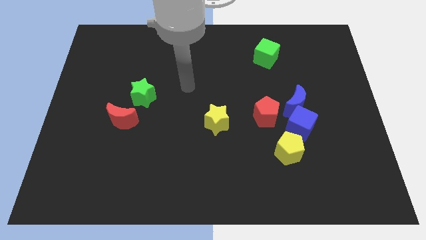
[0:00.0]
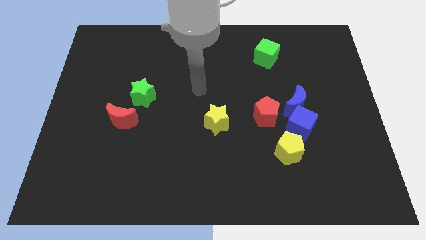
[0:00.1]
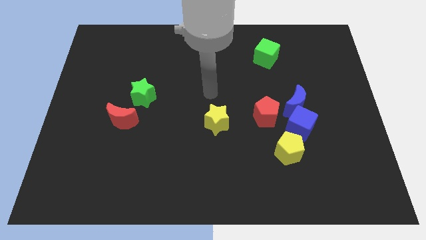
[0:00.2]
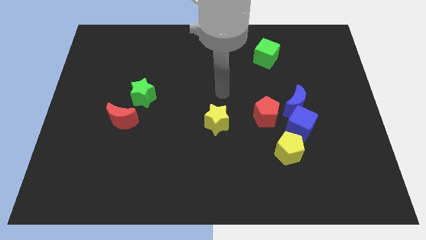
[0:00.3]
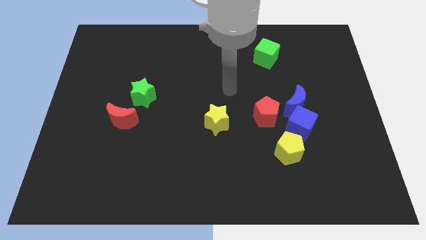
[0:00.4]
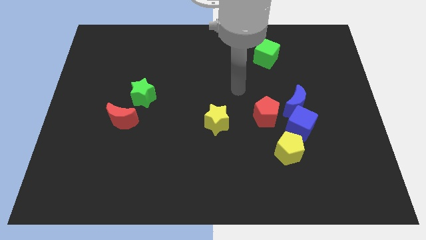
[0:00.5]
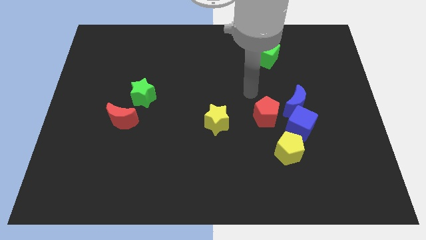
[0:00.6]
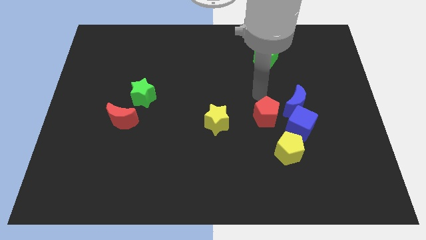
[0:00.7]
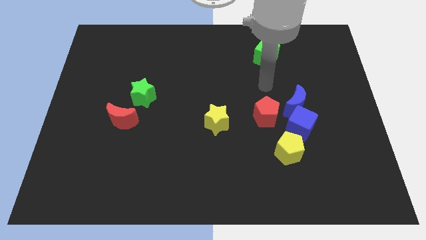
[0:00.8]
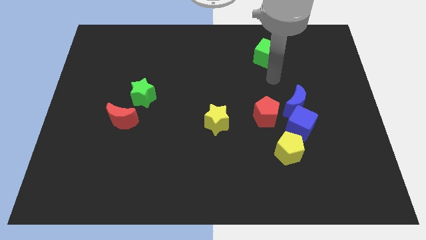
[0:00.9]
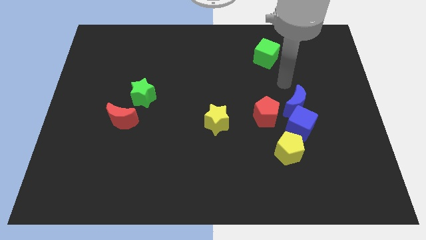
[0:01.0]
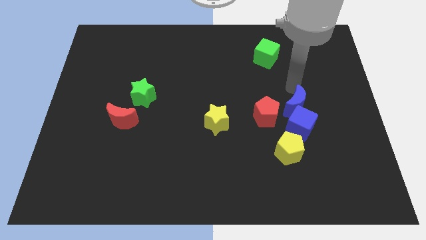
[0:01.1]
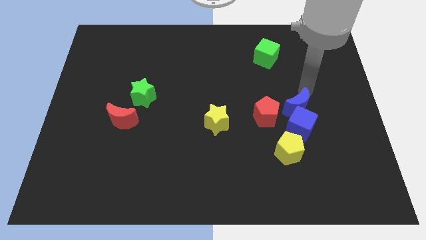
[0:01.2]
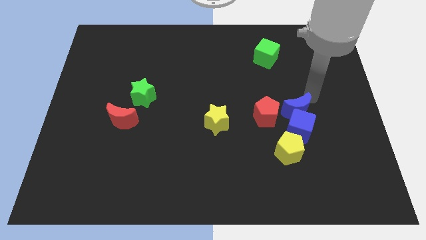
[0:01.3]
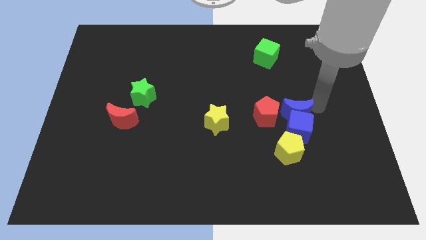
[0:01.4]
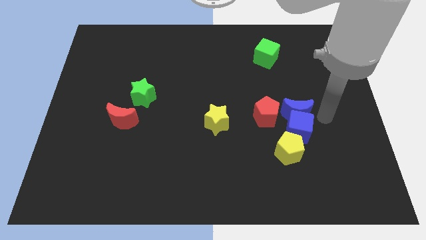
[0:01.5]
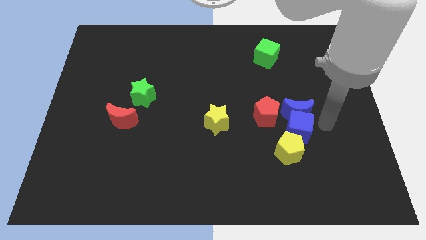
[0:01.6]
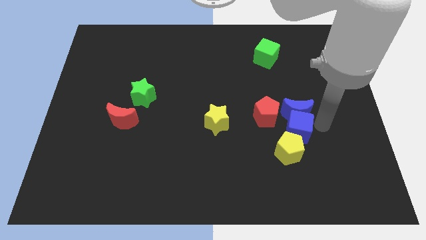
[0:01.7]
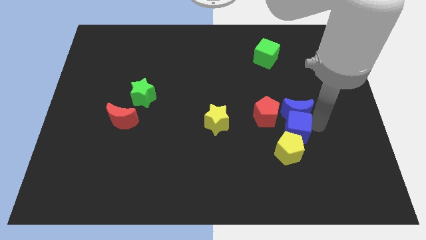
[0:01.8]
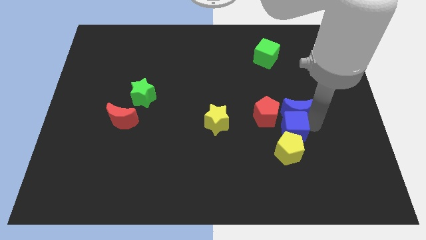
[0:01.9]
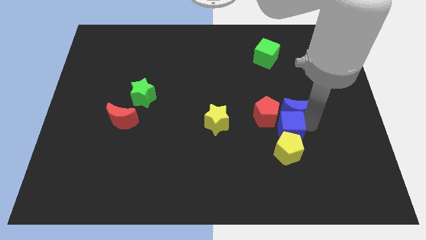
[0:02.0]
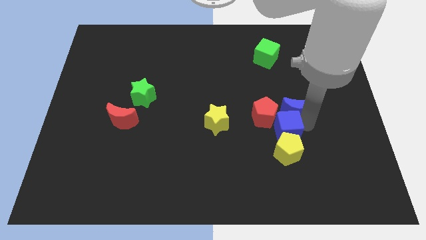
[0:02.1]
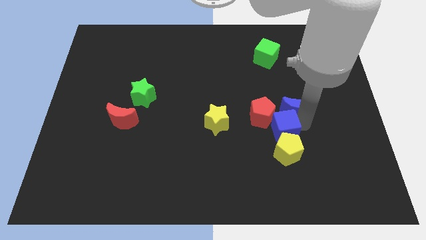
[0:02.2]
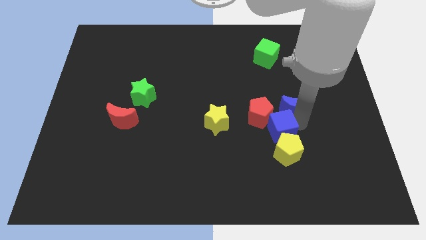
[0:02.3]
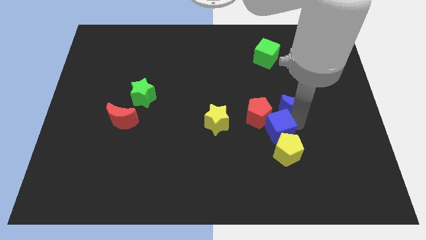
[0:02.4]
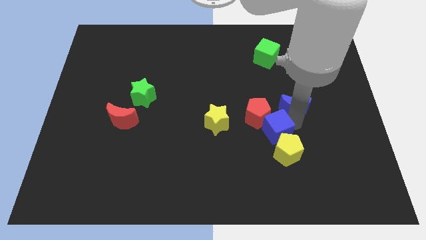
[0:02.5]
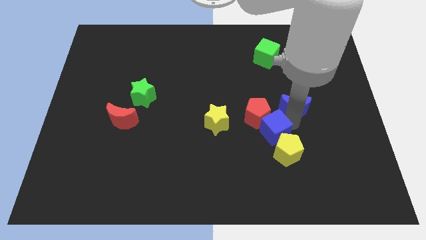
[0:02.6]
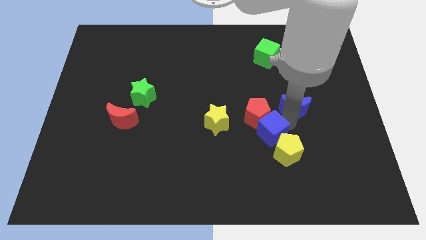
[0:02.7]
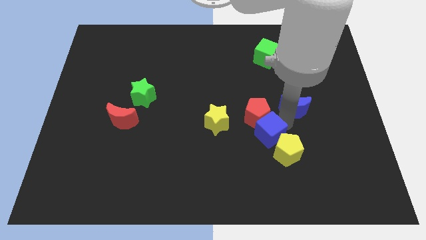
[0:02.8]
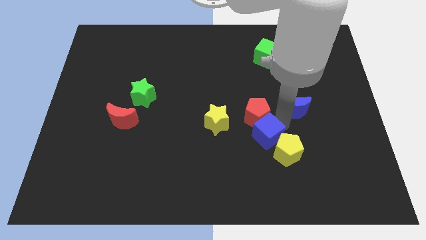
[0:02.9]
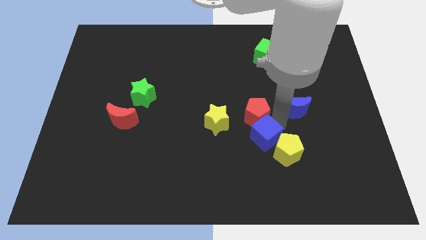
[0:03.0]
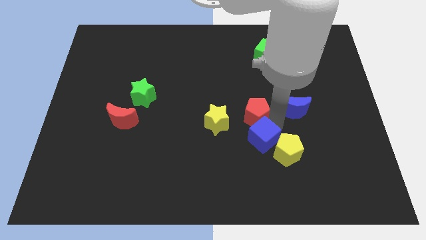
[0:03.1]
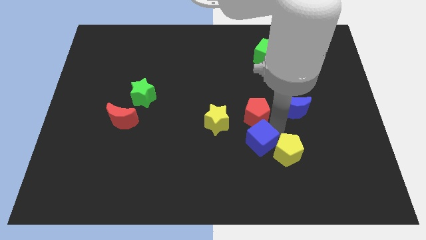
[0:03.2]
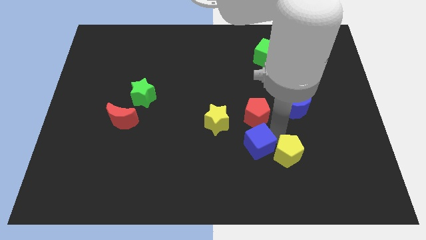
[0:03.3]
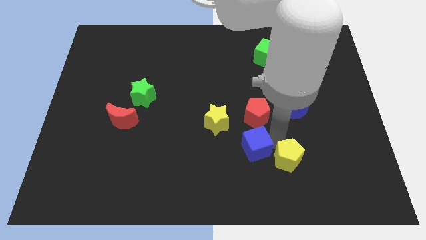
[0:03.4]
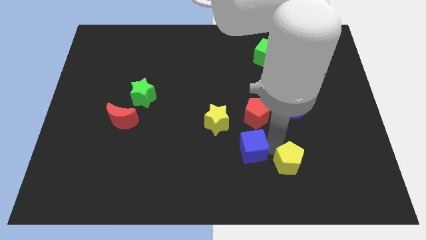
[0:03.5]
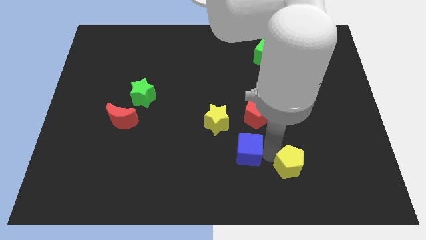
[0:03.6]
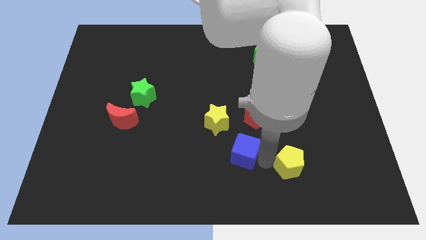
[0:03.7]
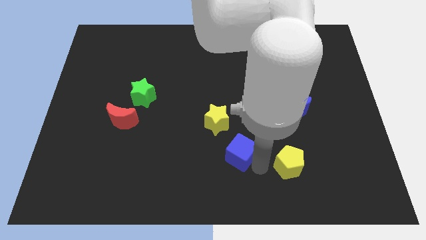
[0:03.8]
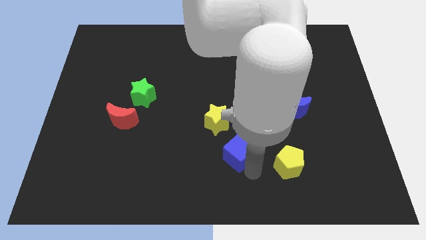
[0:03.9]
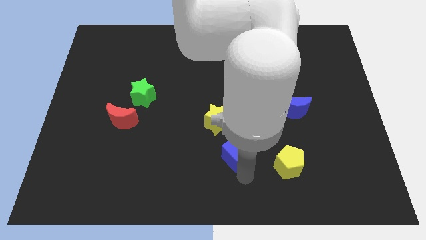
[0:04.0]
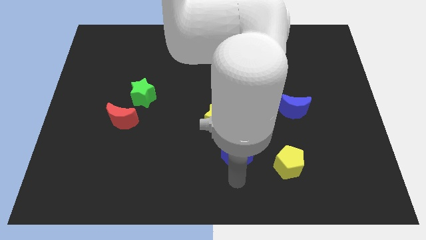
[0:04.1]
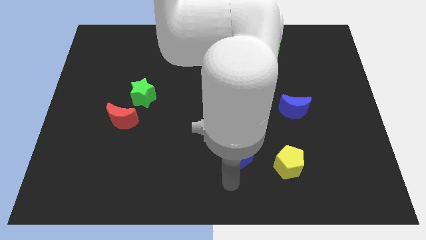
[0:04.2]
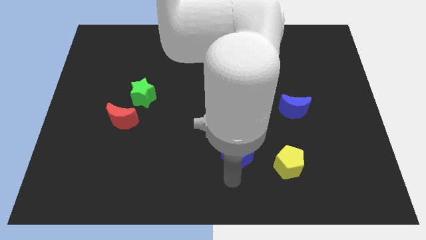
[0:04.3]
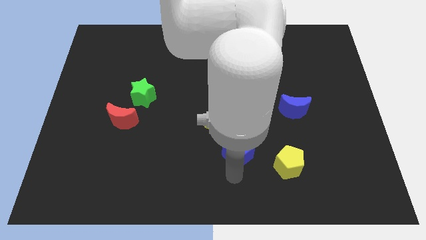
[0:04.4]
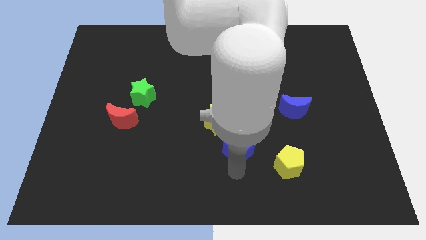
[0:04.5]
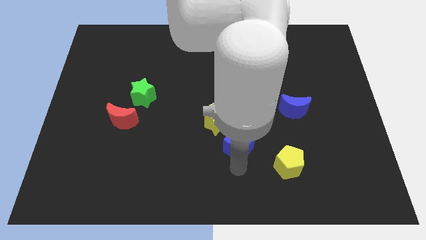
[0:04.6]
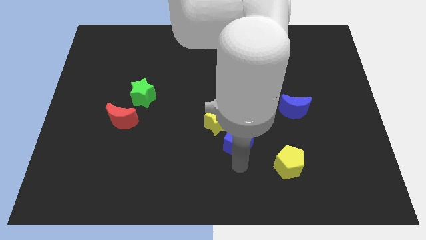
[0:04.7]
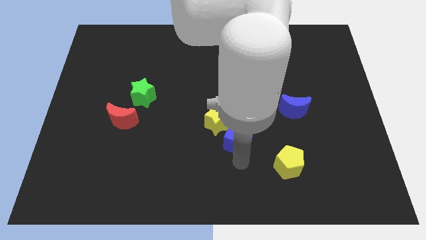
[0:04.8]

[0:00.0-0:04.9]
slide the blue cube to the middle

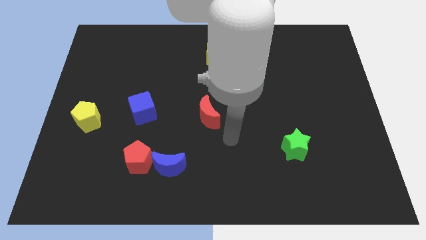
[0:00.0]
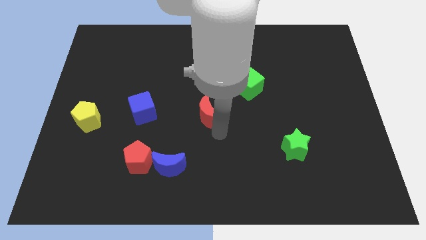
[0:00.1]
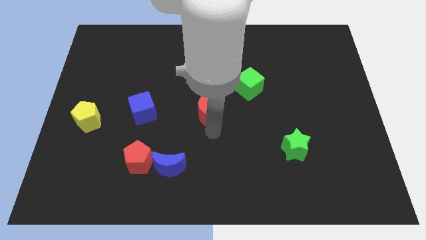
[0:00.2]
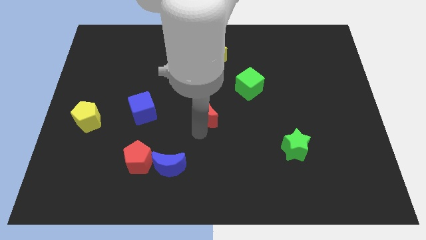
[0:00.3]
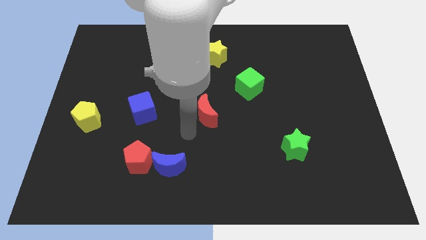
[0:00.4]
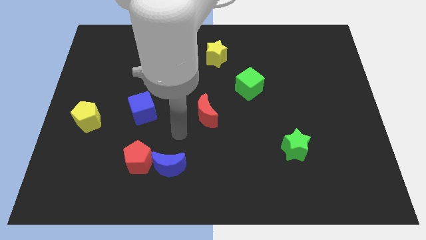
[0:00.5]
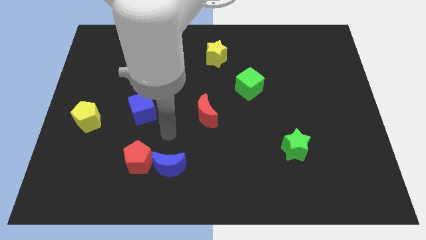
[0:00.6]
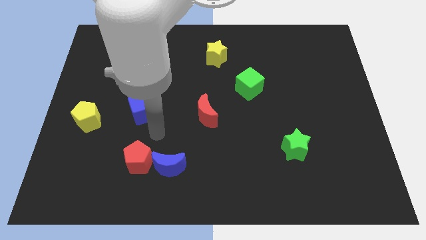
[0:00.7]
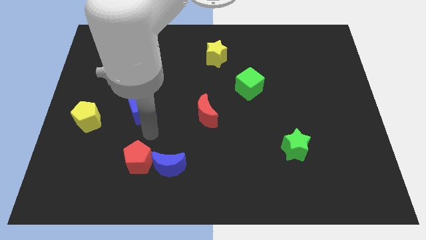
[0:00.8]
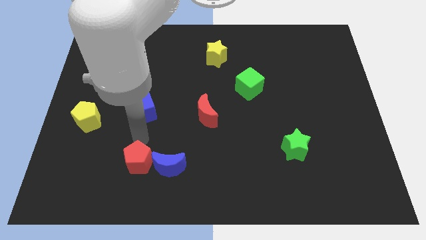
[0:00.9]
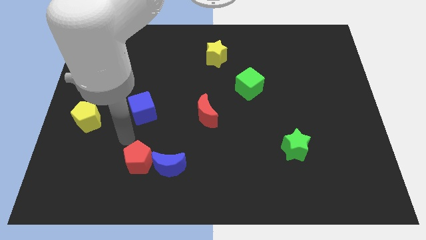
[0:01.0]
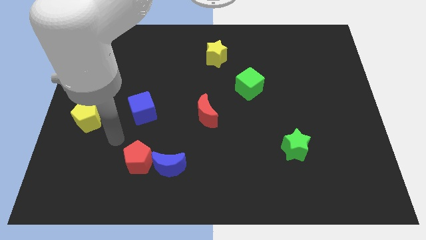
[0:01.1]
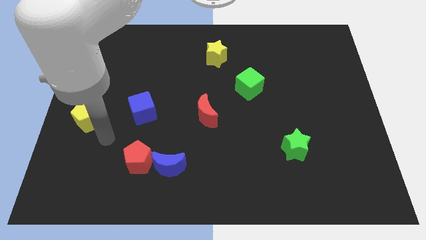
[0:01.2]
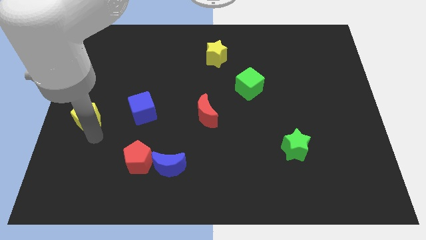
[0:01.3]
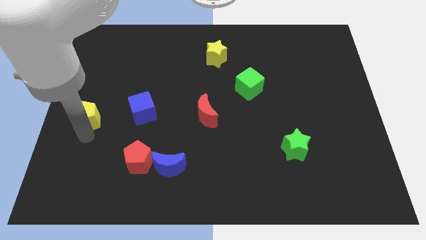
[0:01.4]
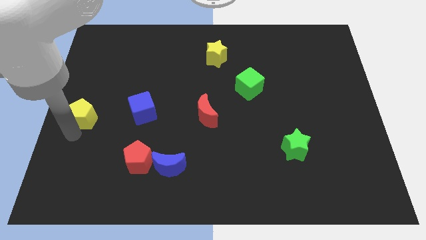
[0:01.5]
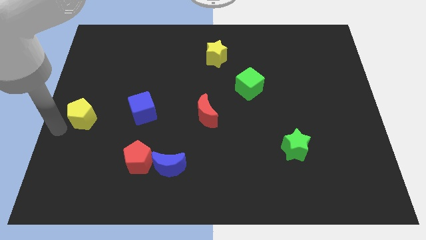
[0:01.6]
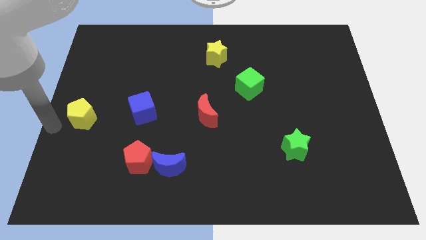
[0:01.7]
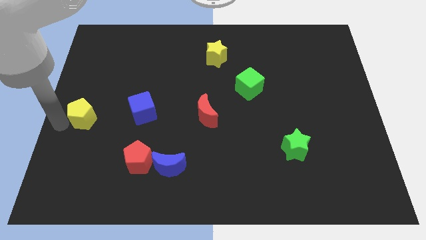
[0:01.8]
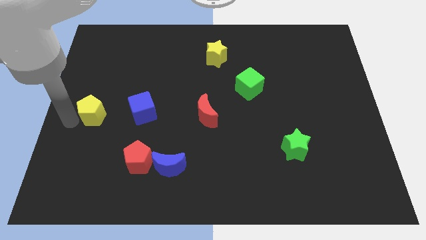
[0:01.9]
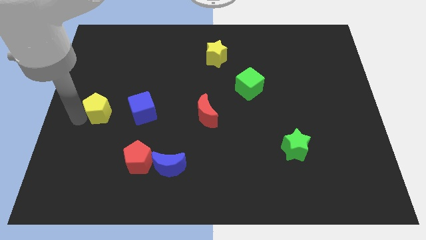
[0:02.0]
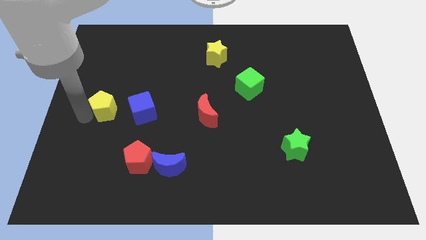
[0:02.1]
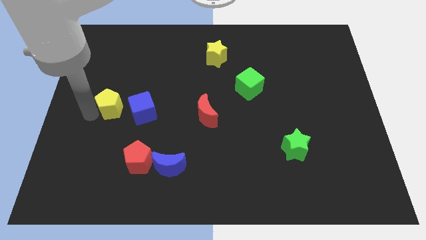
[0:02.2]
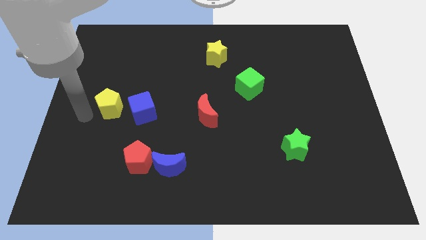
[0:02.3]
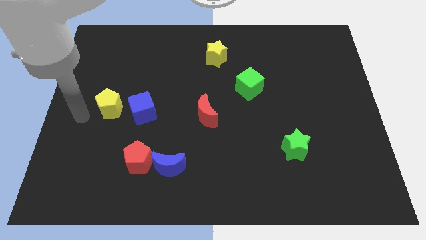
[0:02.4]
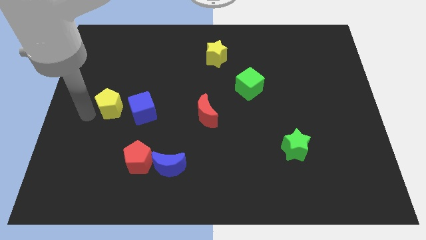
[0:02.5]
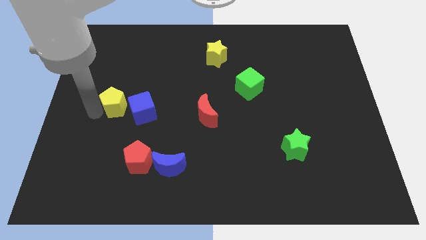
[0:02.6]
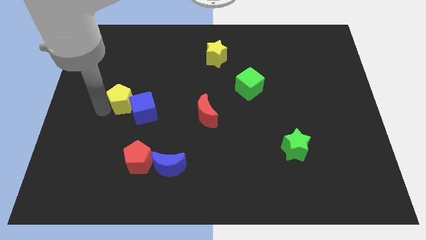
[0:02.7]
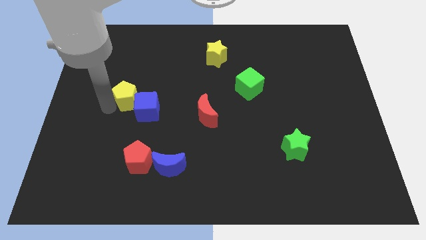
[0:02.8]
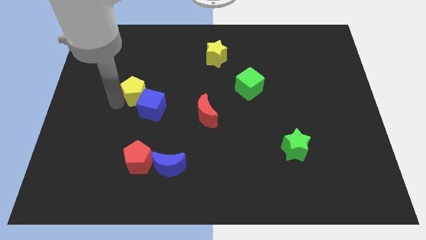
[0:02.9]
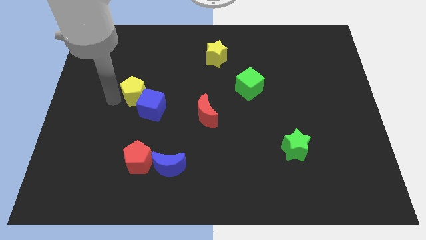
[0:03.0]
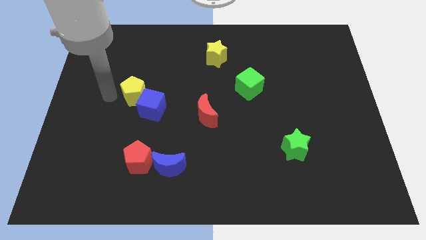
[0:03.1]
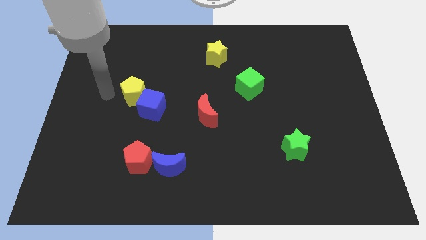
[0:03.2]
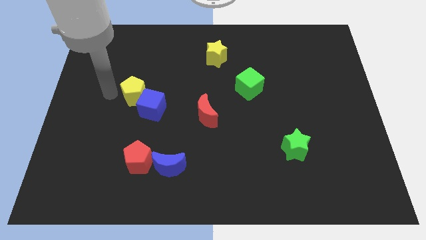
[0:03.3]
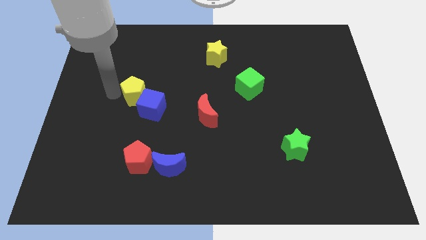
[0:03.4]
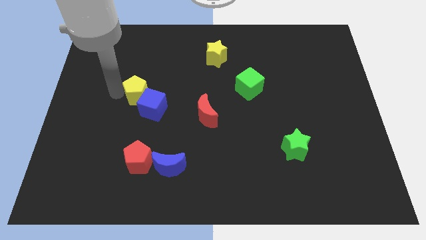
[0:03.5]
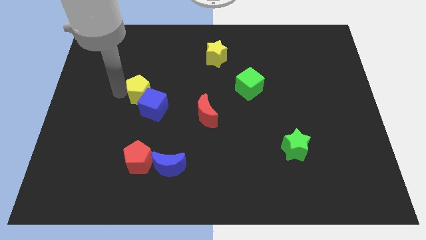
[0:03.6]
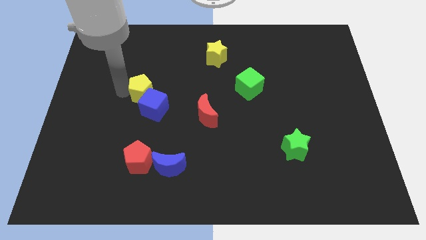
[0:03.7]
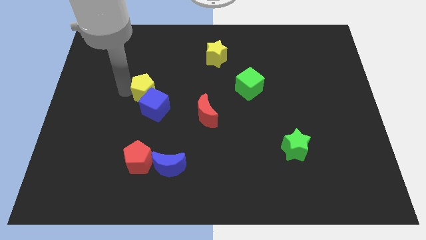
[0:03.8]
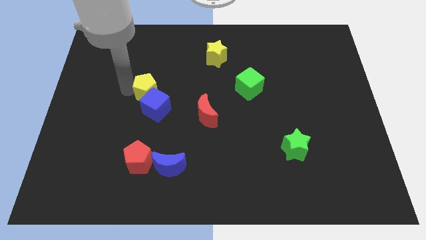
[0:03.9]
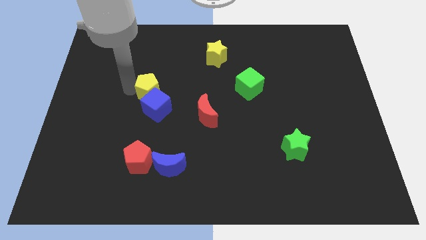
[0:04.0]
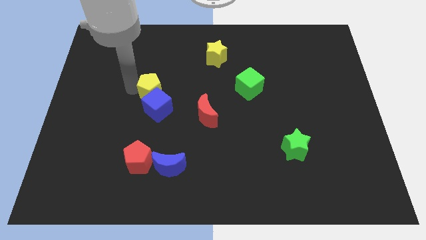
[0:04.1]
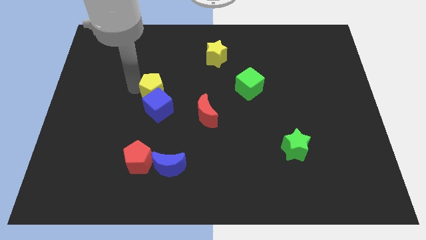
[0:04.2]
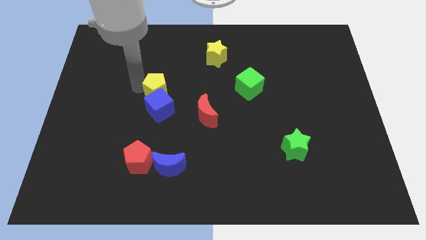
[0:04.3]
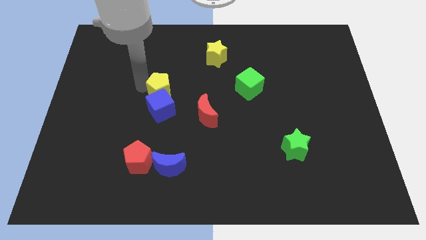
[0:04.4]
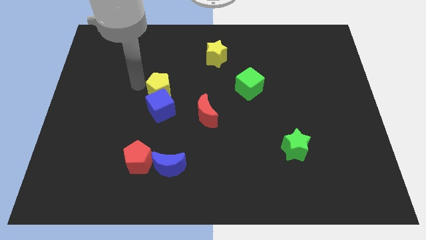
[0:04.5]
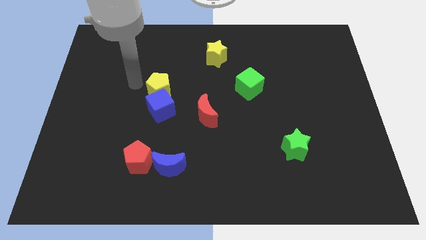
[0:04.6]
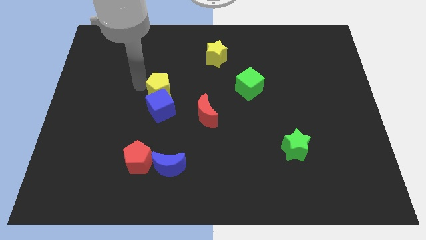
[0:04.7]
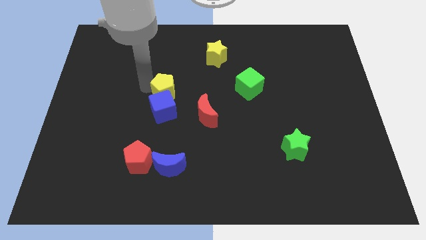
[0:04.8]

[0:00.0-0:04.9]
put the yellow pentagon to the middle
